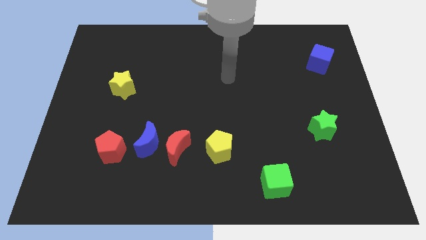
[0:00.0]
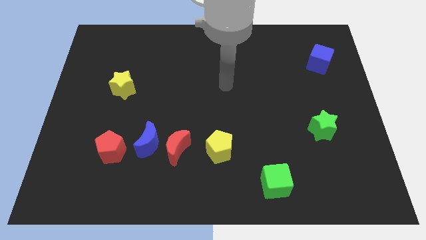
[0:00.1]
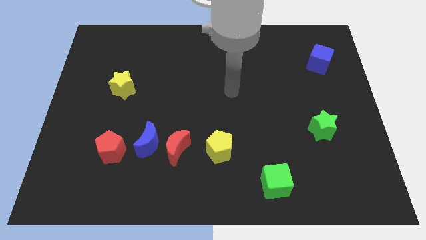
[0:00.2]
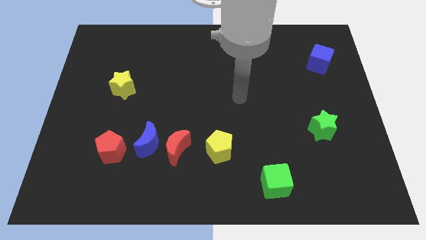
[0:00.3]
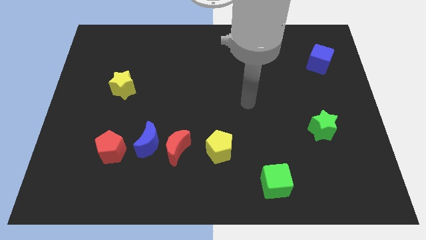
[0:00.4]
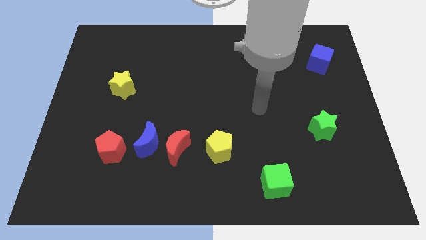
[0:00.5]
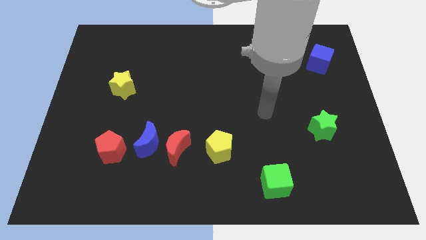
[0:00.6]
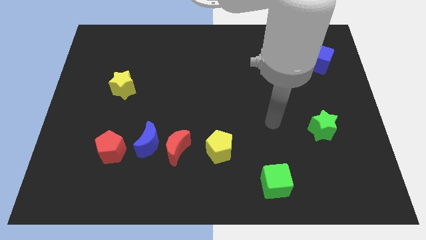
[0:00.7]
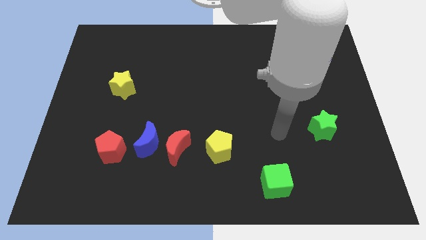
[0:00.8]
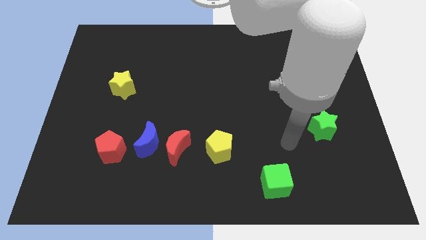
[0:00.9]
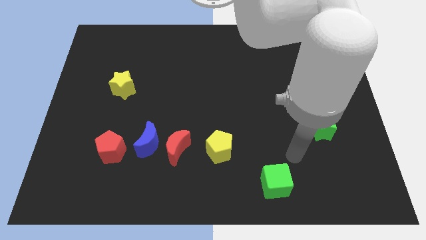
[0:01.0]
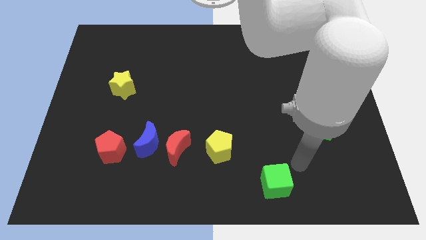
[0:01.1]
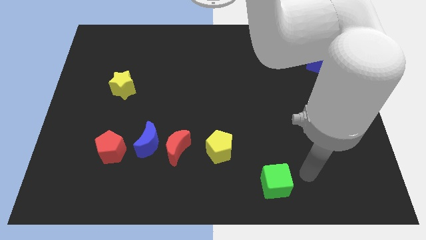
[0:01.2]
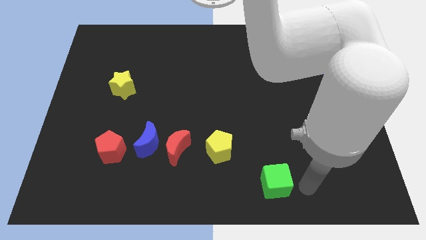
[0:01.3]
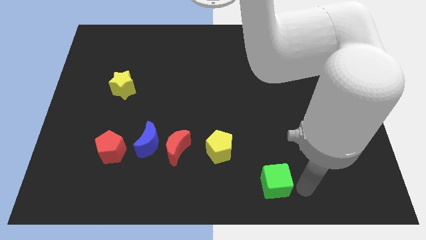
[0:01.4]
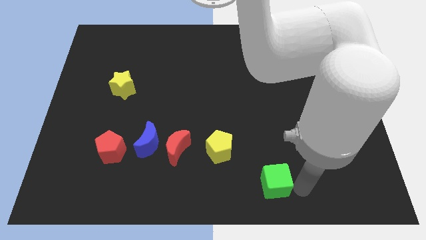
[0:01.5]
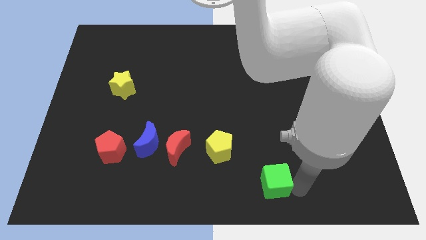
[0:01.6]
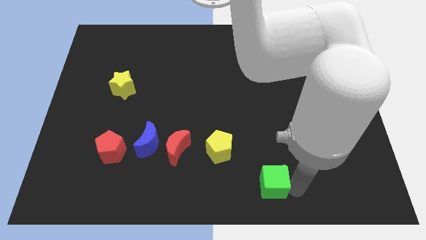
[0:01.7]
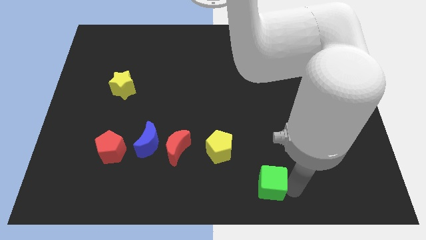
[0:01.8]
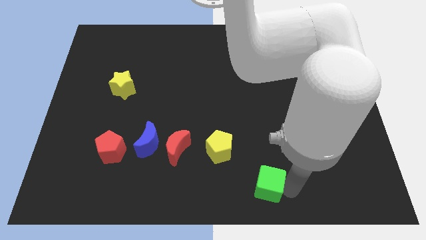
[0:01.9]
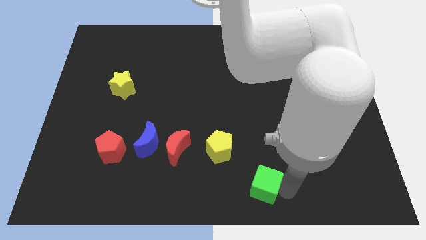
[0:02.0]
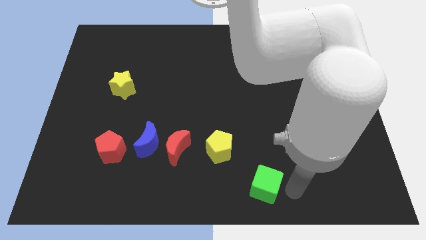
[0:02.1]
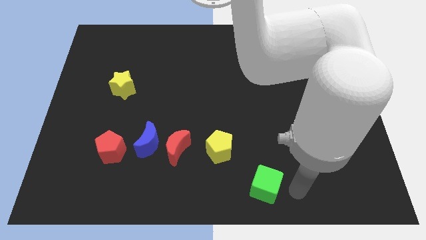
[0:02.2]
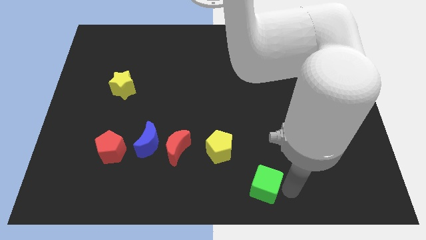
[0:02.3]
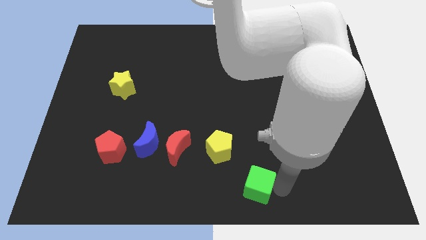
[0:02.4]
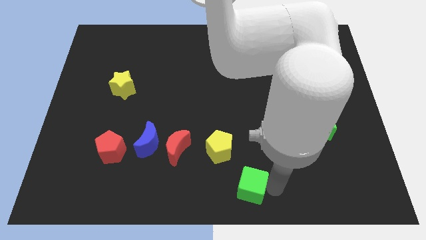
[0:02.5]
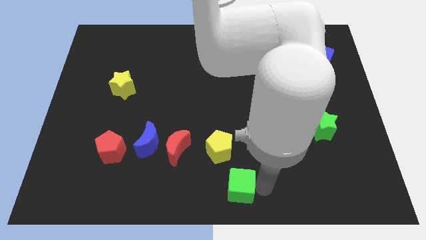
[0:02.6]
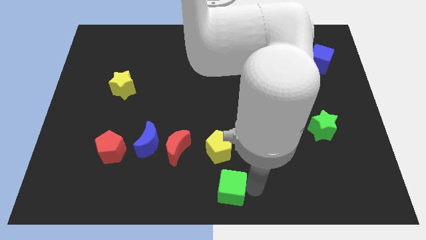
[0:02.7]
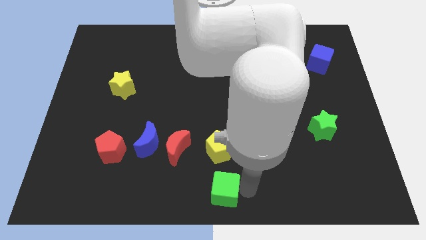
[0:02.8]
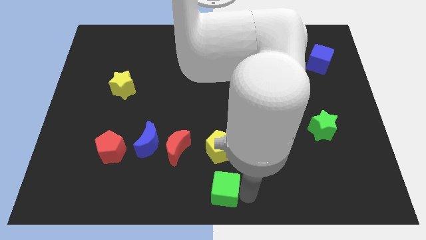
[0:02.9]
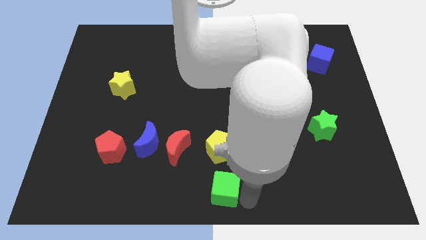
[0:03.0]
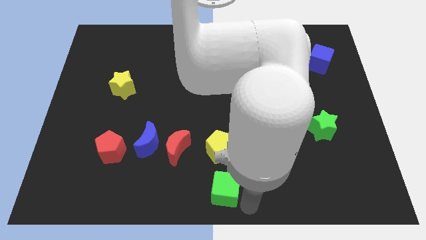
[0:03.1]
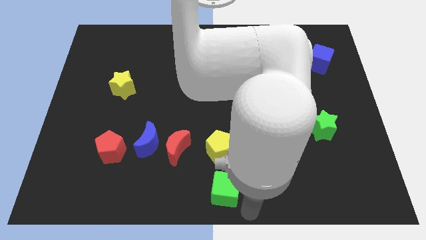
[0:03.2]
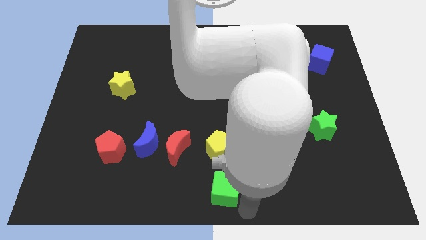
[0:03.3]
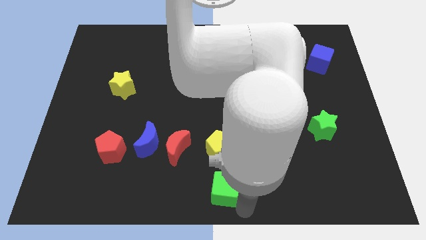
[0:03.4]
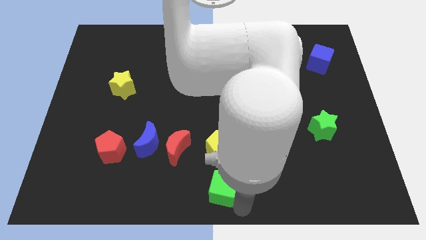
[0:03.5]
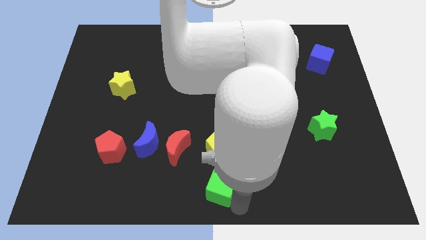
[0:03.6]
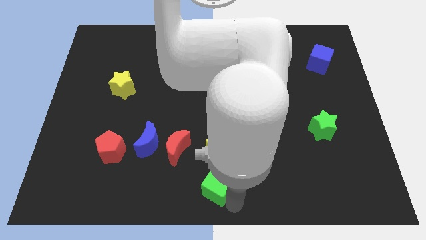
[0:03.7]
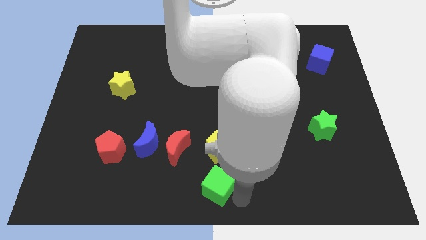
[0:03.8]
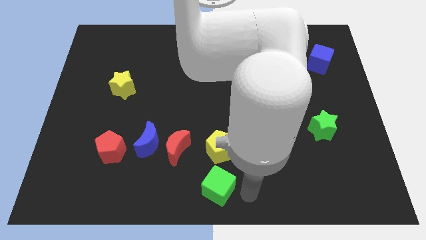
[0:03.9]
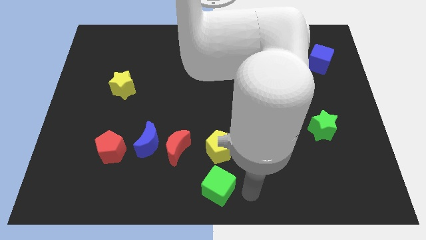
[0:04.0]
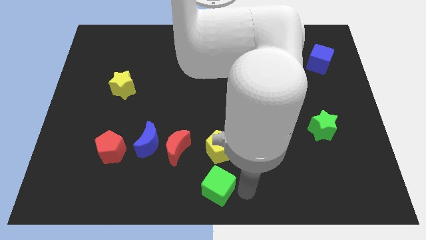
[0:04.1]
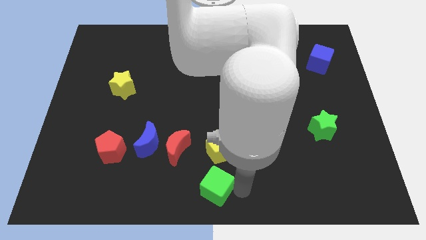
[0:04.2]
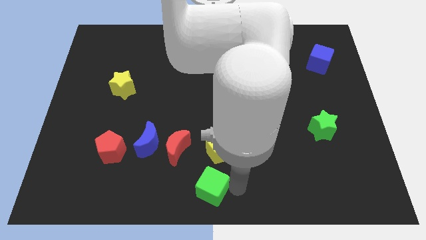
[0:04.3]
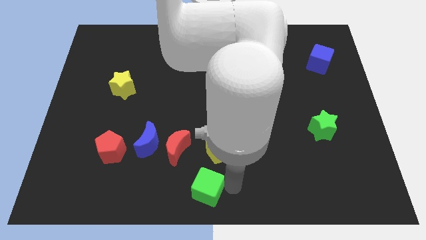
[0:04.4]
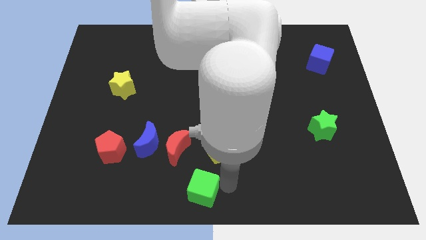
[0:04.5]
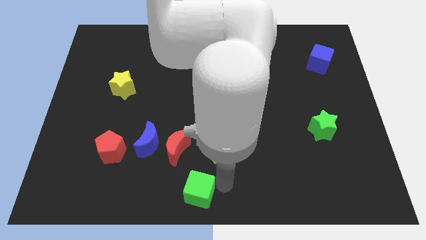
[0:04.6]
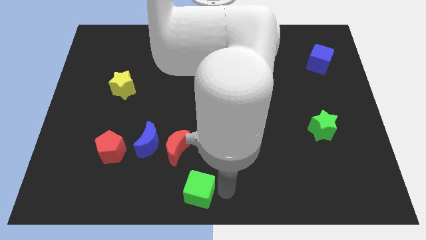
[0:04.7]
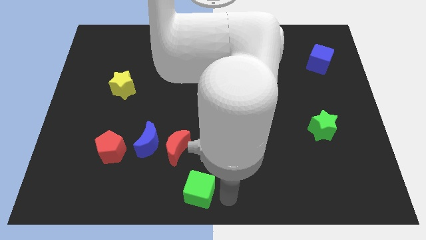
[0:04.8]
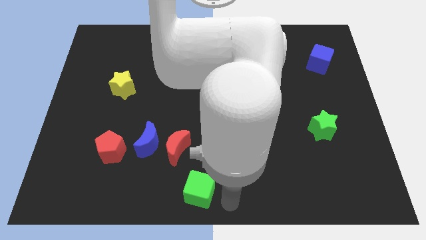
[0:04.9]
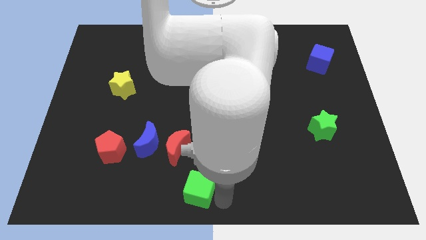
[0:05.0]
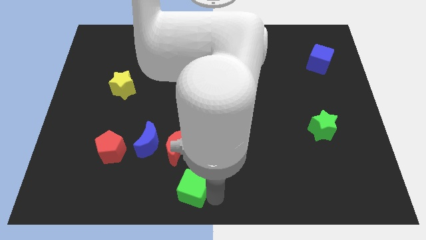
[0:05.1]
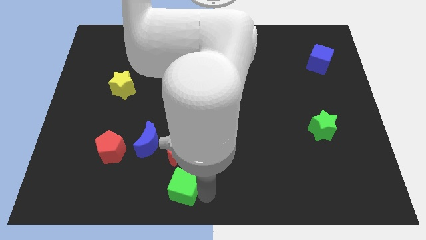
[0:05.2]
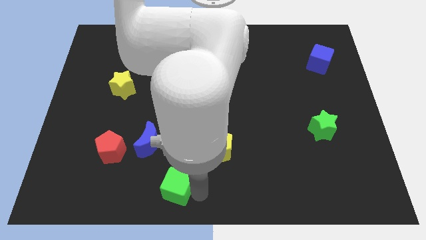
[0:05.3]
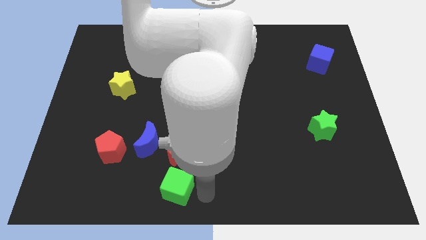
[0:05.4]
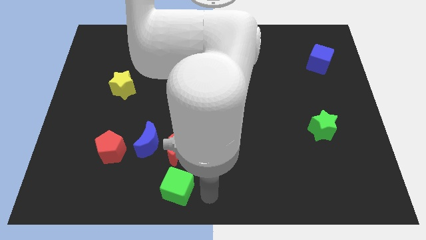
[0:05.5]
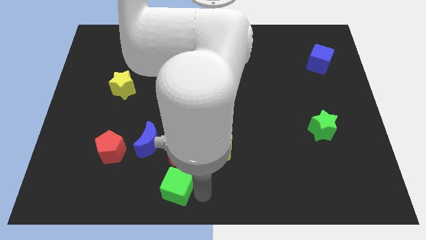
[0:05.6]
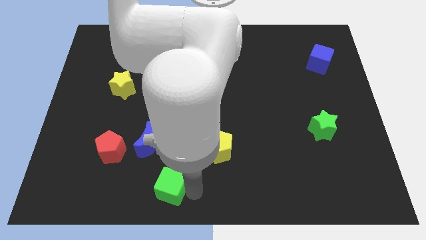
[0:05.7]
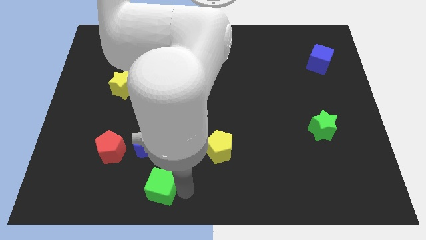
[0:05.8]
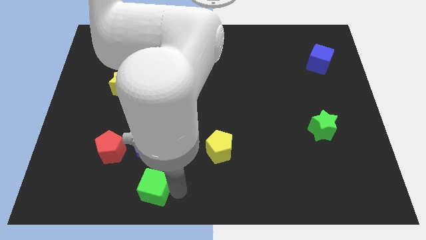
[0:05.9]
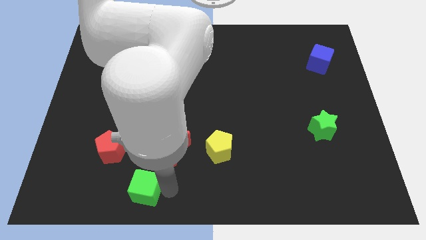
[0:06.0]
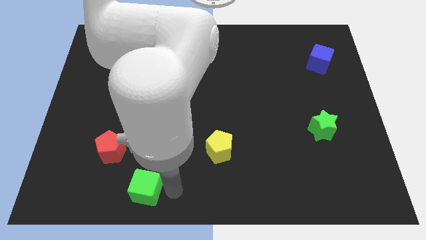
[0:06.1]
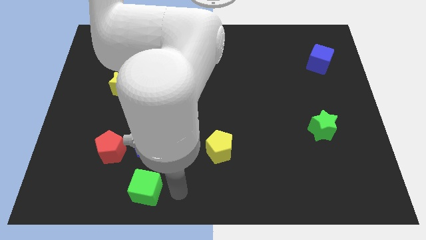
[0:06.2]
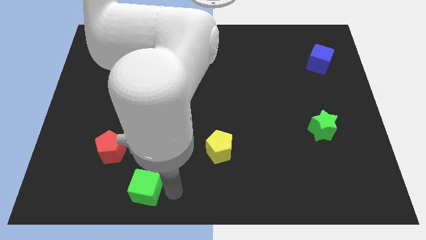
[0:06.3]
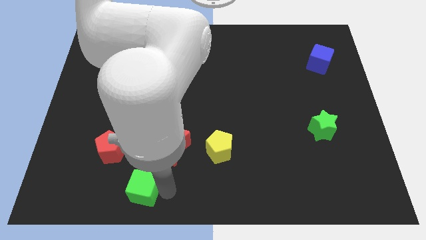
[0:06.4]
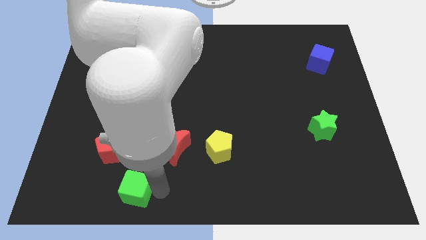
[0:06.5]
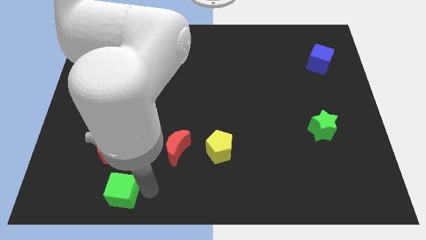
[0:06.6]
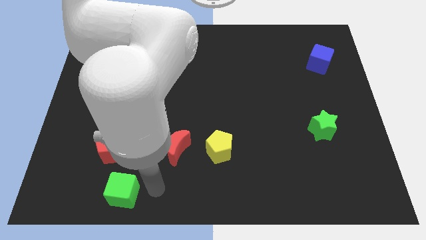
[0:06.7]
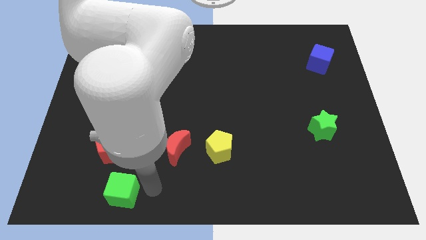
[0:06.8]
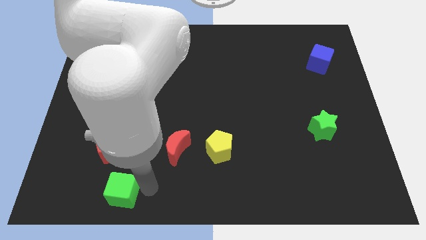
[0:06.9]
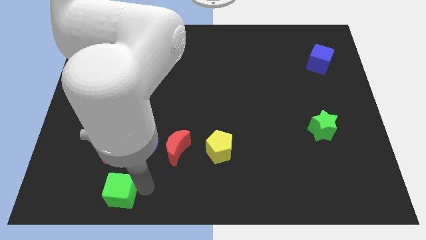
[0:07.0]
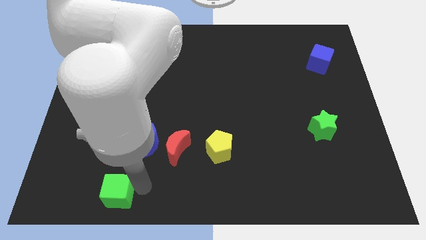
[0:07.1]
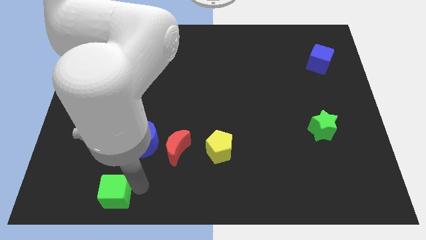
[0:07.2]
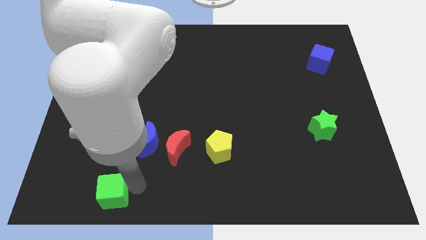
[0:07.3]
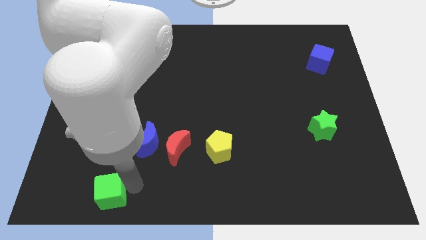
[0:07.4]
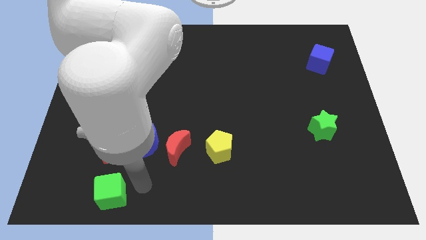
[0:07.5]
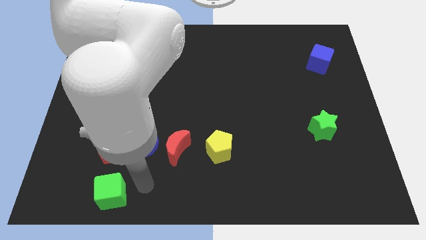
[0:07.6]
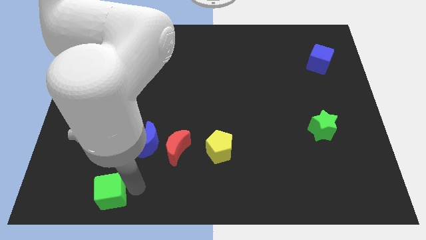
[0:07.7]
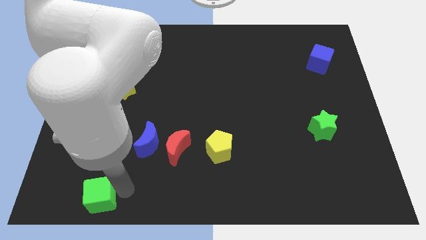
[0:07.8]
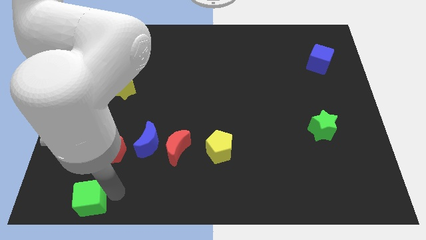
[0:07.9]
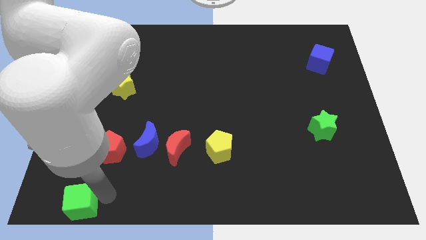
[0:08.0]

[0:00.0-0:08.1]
push the green cube to the bottom left of the board
